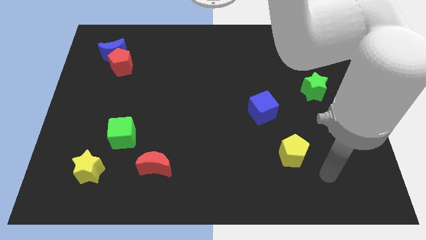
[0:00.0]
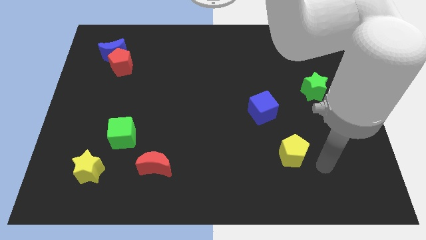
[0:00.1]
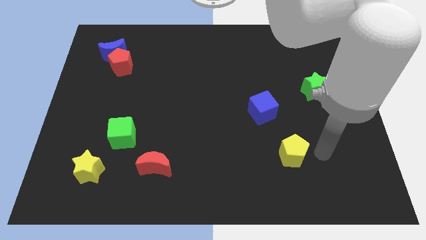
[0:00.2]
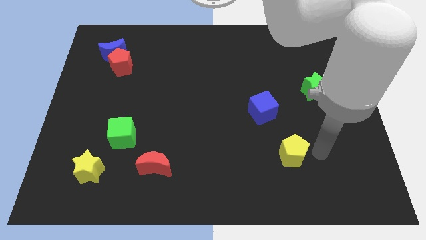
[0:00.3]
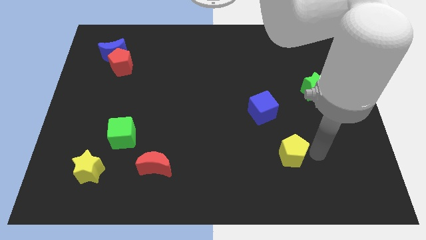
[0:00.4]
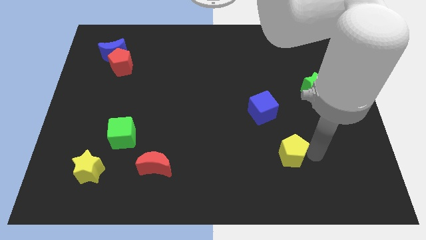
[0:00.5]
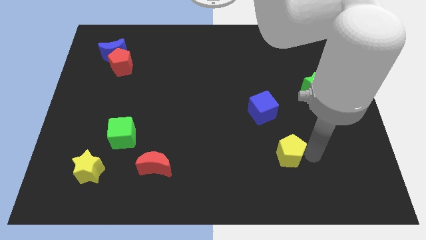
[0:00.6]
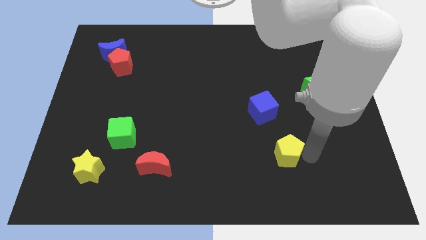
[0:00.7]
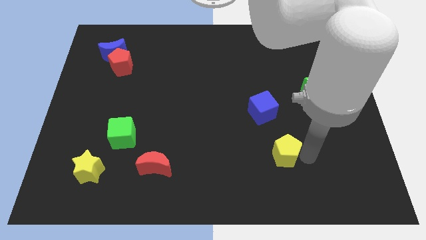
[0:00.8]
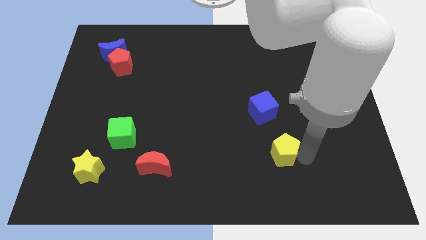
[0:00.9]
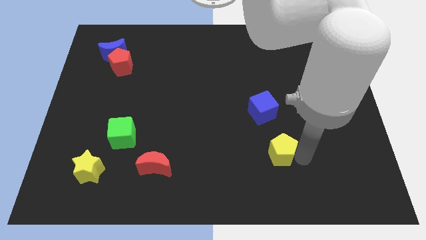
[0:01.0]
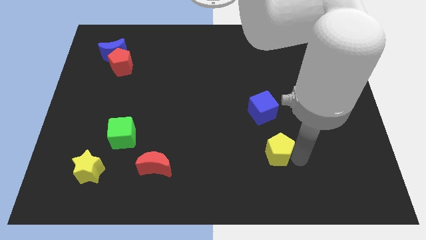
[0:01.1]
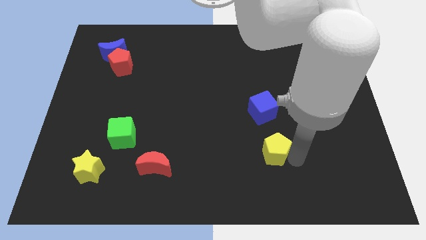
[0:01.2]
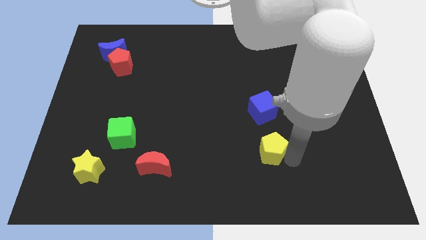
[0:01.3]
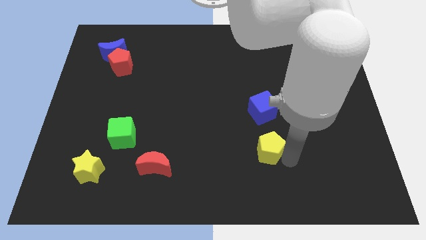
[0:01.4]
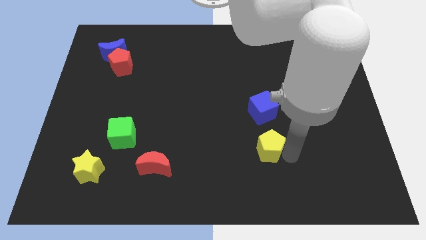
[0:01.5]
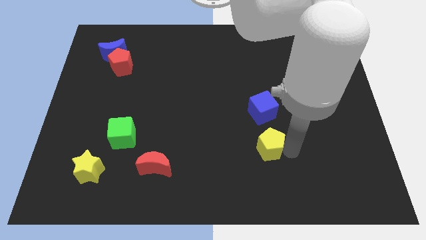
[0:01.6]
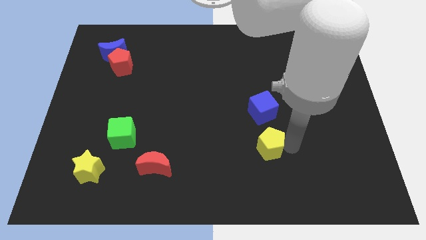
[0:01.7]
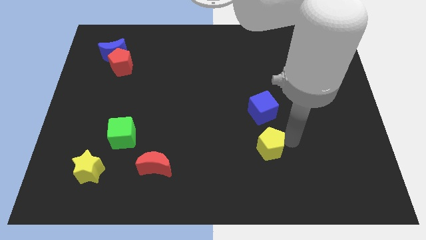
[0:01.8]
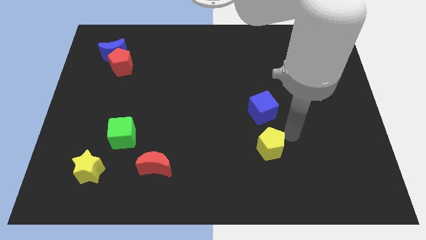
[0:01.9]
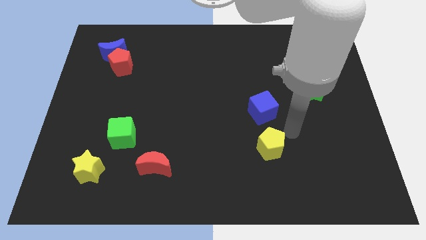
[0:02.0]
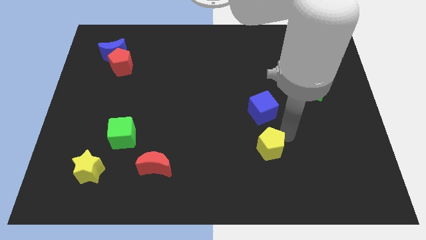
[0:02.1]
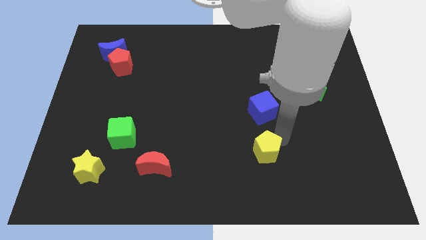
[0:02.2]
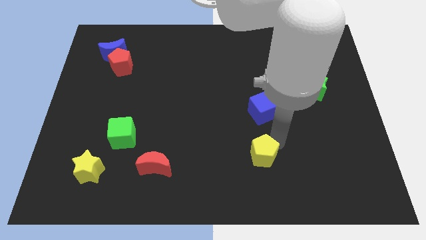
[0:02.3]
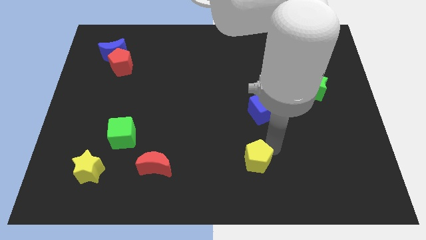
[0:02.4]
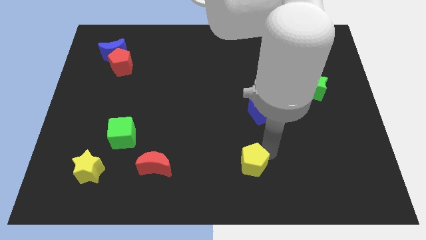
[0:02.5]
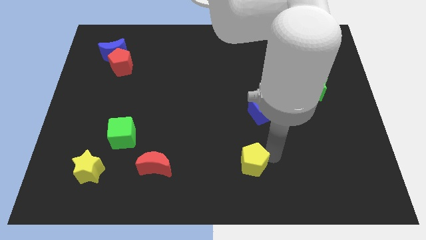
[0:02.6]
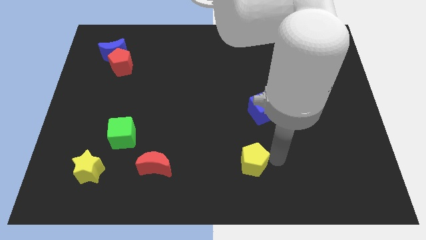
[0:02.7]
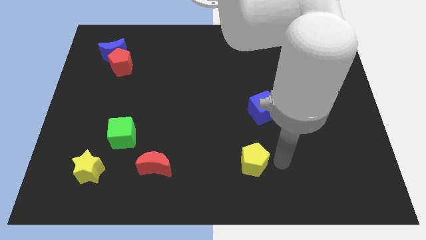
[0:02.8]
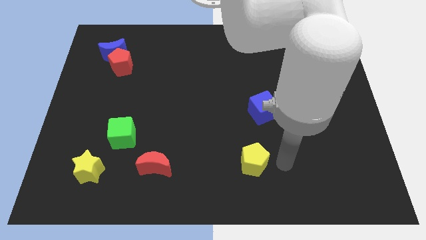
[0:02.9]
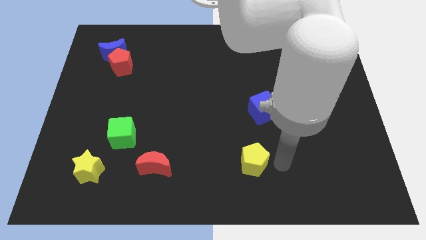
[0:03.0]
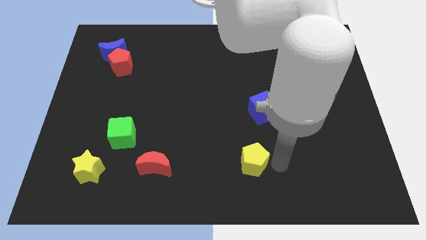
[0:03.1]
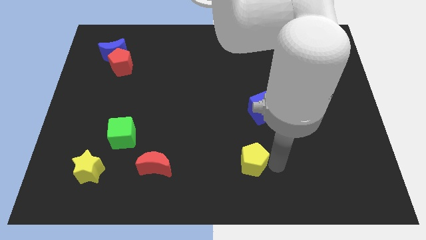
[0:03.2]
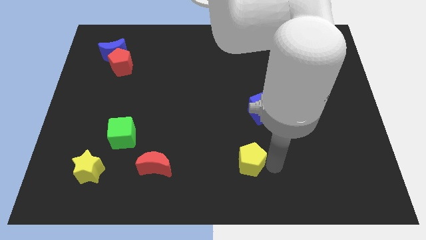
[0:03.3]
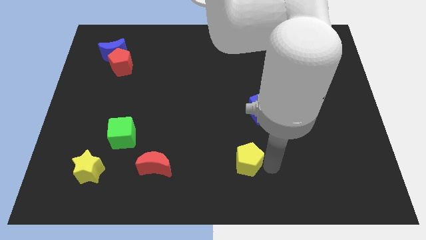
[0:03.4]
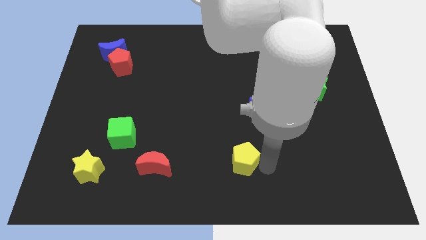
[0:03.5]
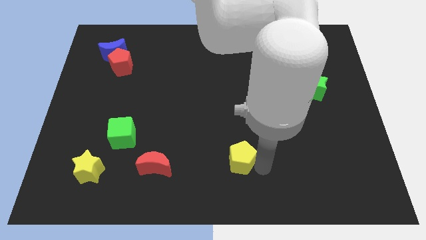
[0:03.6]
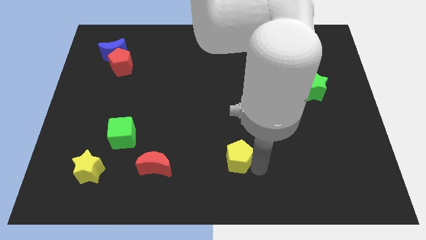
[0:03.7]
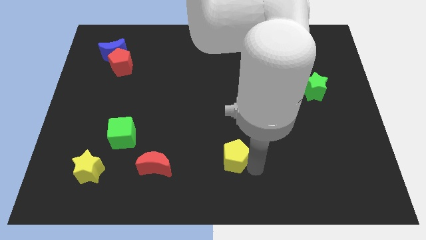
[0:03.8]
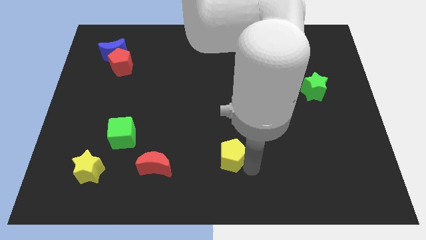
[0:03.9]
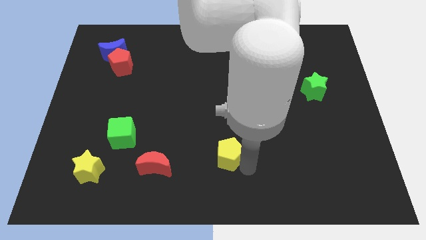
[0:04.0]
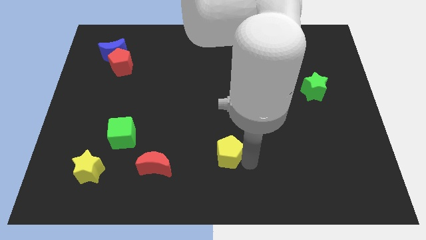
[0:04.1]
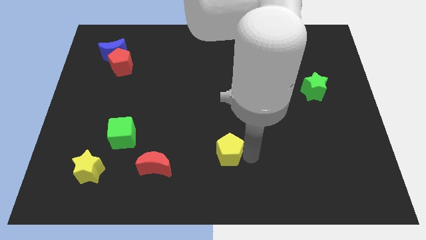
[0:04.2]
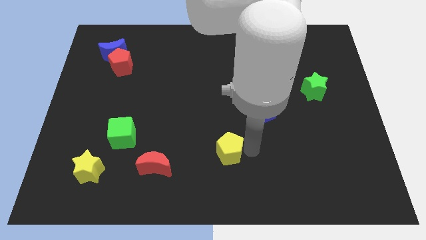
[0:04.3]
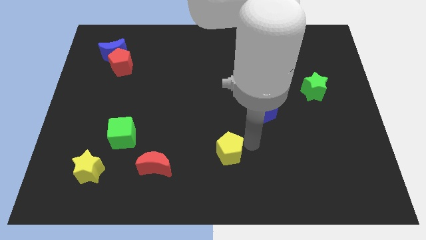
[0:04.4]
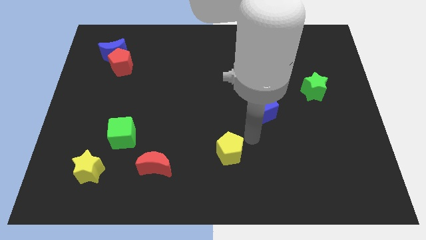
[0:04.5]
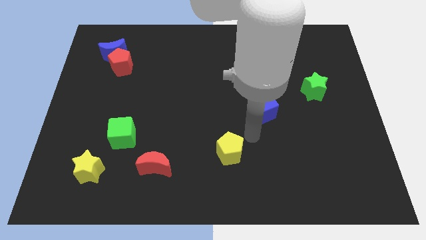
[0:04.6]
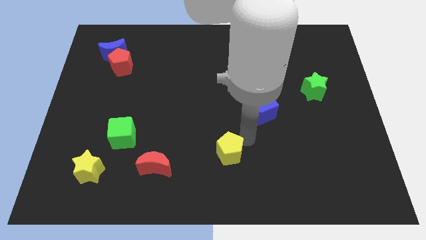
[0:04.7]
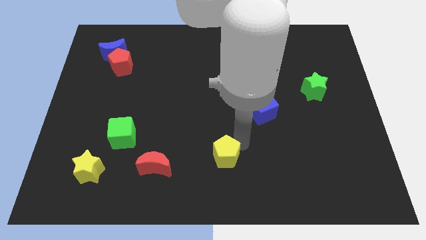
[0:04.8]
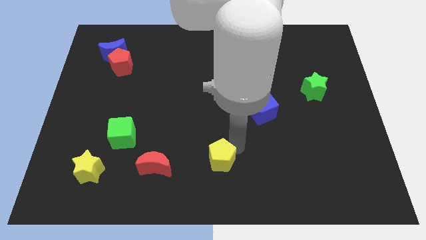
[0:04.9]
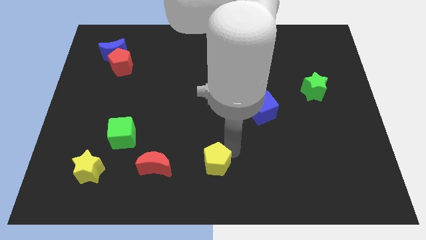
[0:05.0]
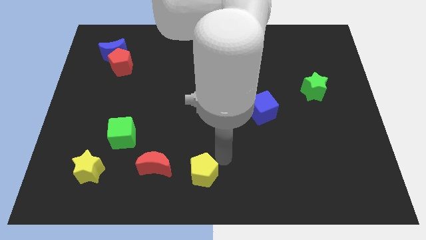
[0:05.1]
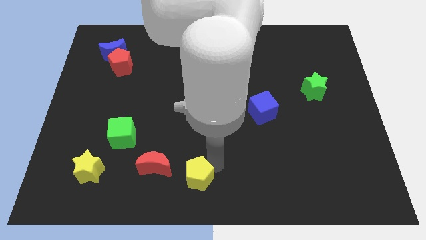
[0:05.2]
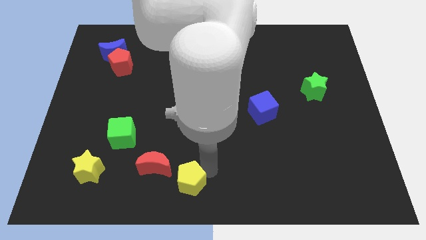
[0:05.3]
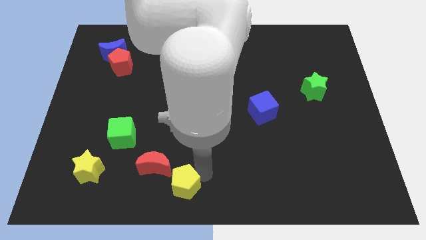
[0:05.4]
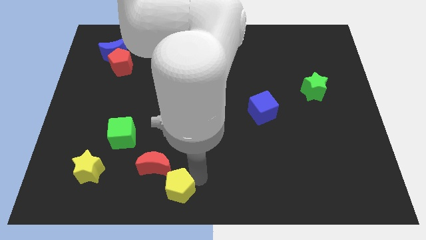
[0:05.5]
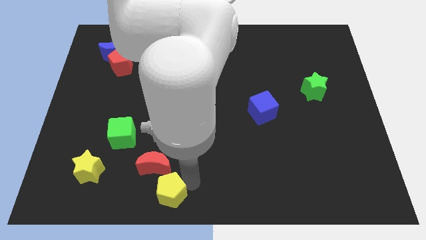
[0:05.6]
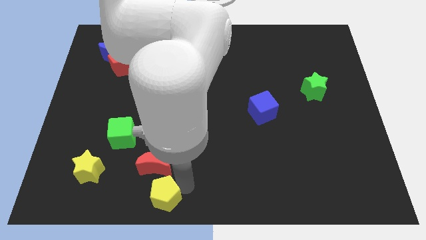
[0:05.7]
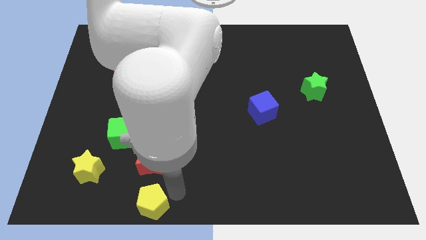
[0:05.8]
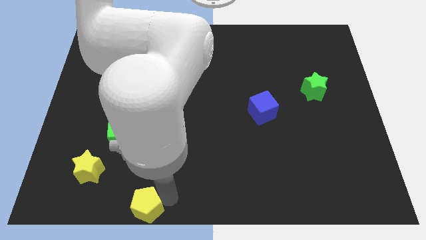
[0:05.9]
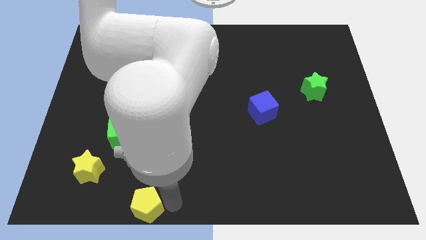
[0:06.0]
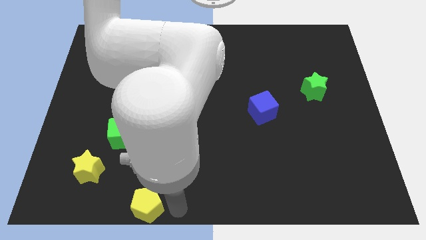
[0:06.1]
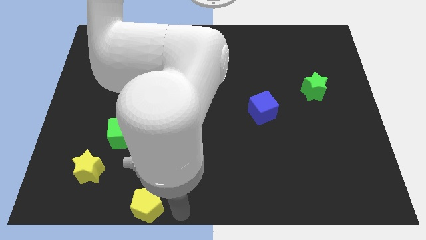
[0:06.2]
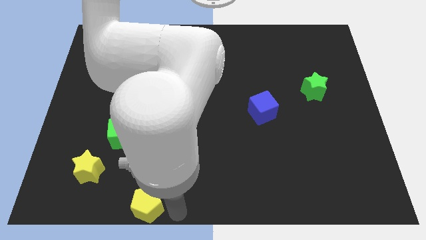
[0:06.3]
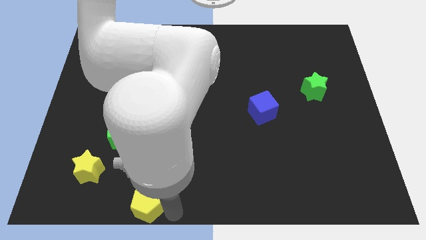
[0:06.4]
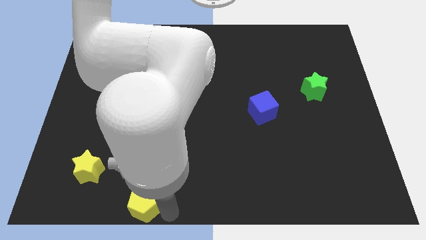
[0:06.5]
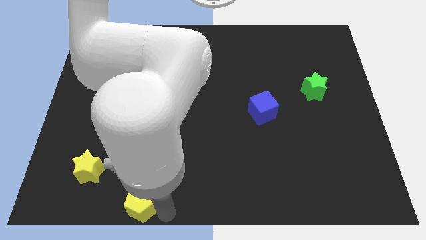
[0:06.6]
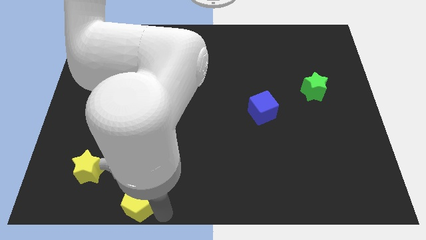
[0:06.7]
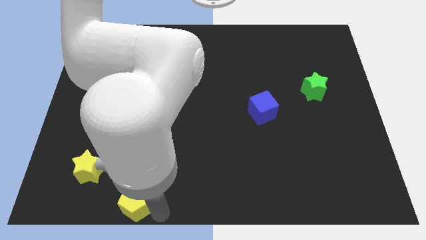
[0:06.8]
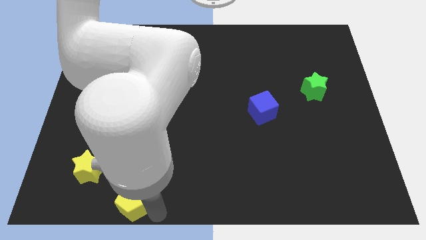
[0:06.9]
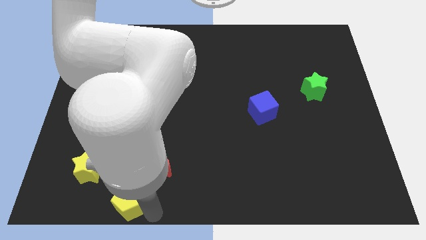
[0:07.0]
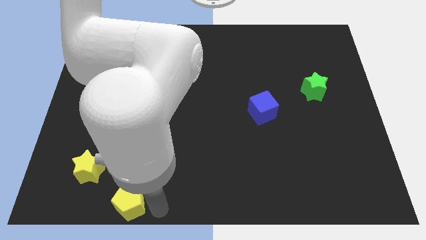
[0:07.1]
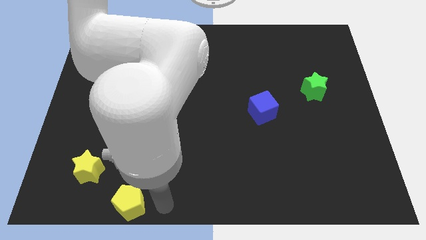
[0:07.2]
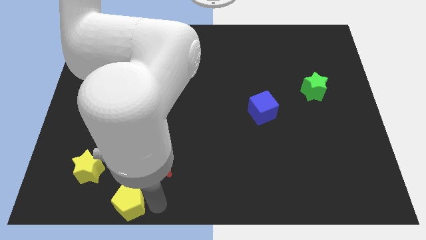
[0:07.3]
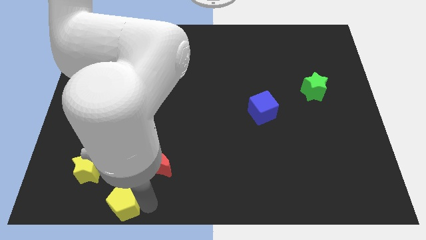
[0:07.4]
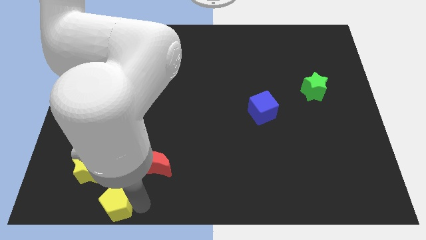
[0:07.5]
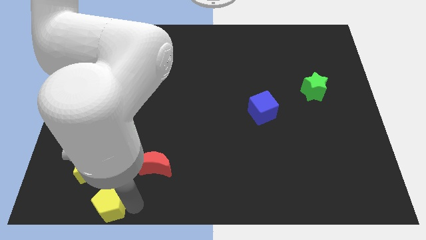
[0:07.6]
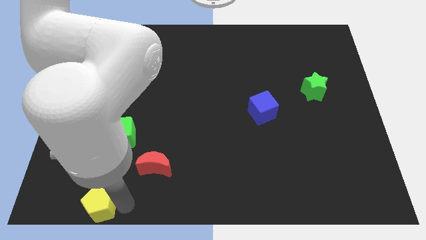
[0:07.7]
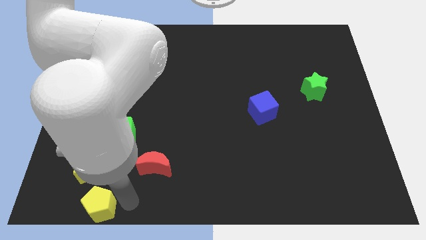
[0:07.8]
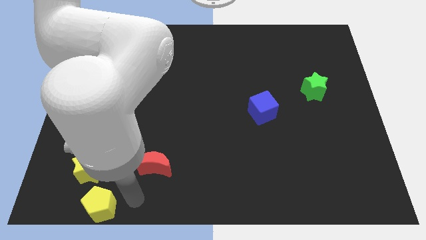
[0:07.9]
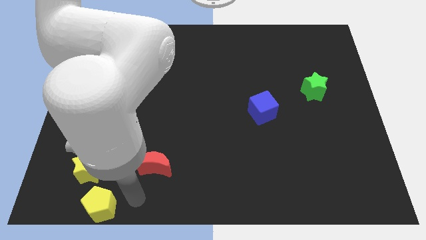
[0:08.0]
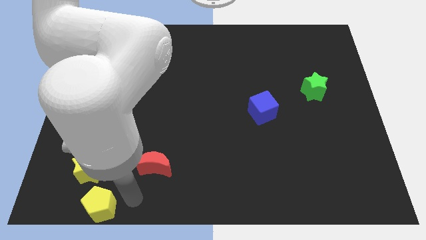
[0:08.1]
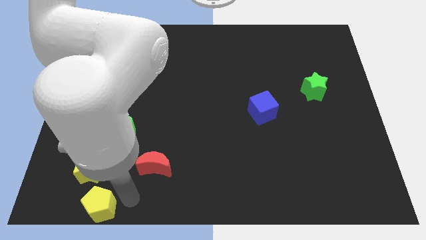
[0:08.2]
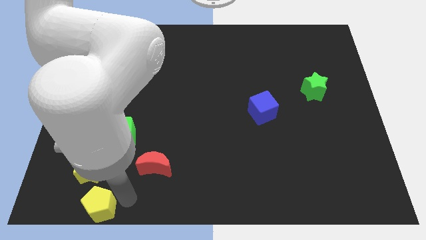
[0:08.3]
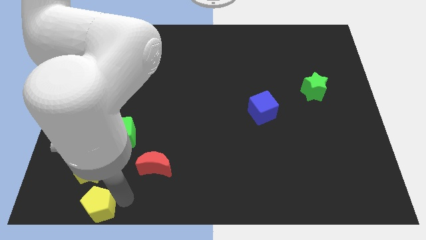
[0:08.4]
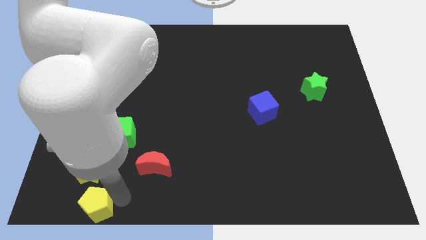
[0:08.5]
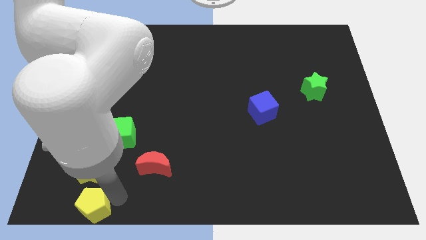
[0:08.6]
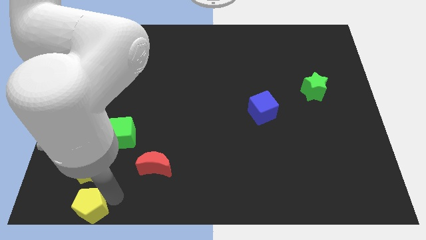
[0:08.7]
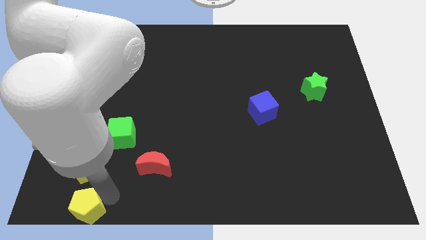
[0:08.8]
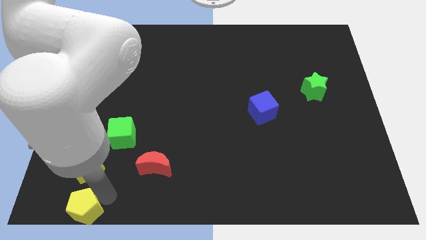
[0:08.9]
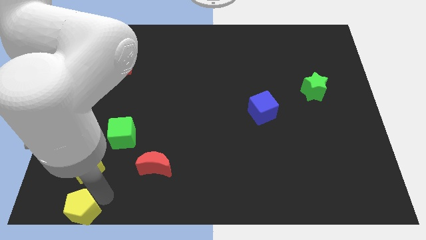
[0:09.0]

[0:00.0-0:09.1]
slide the yellow pentagon to the bottom left corner
